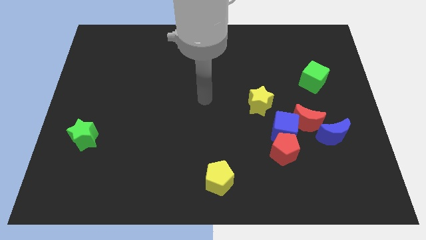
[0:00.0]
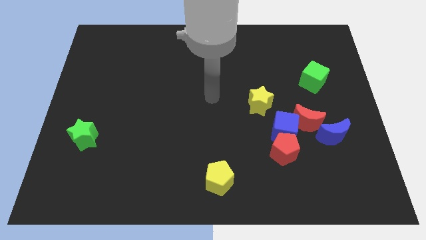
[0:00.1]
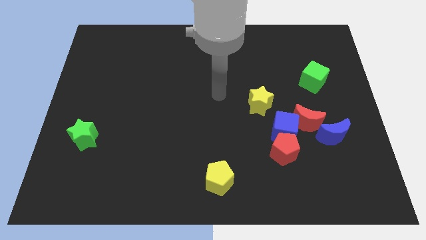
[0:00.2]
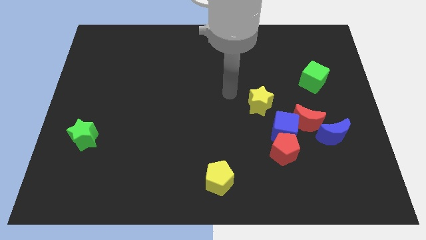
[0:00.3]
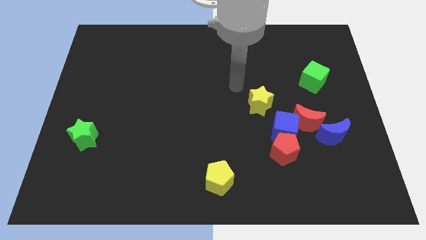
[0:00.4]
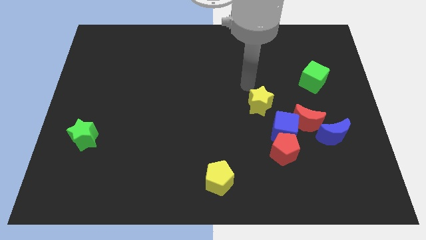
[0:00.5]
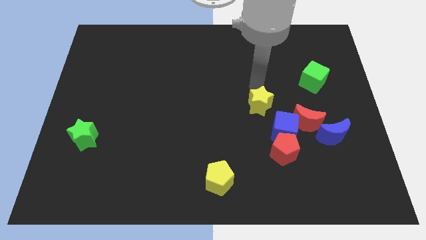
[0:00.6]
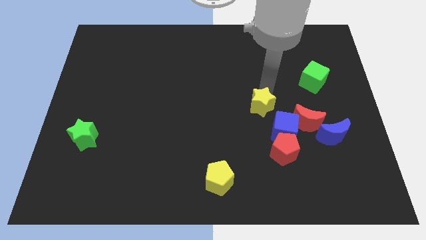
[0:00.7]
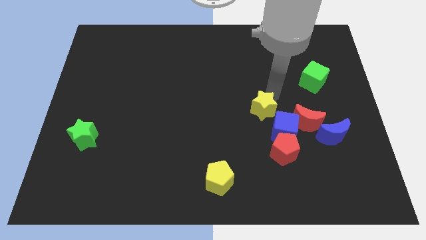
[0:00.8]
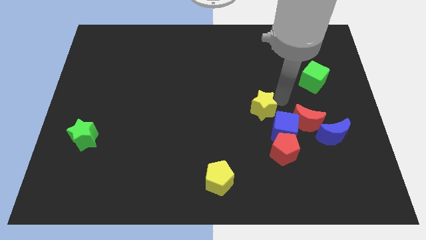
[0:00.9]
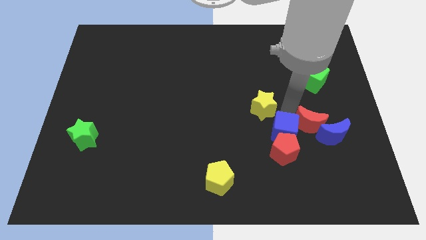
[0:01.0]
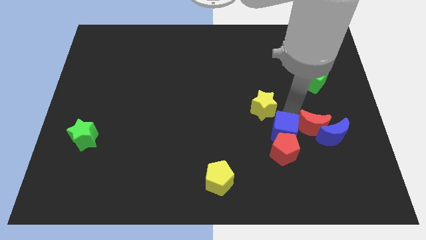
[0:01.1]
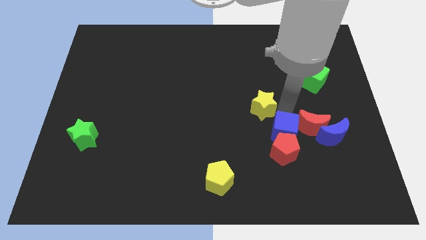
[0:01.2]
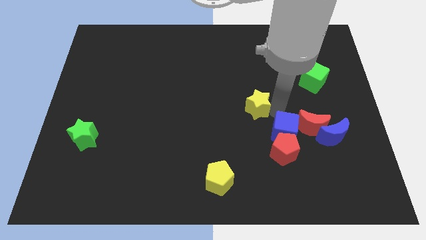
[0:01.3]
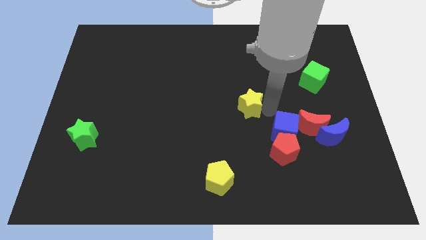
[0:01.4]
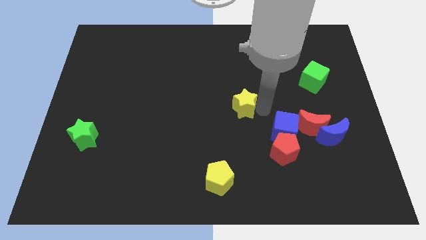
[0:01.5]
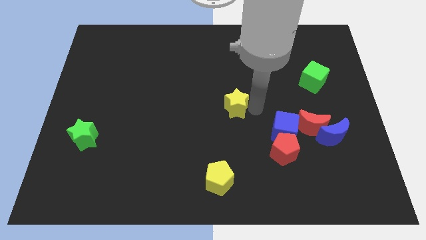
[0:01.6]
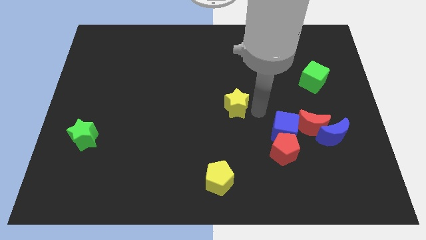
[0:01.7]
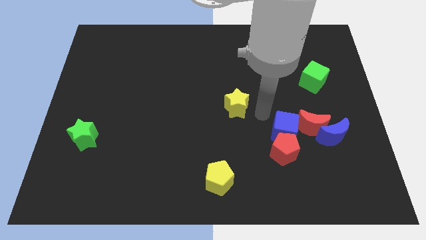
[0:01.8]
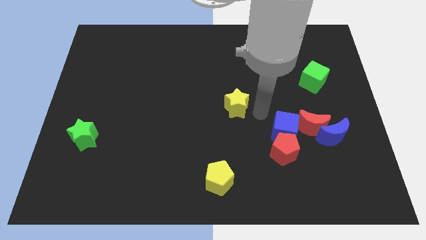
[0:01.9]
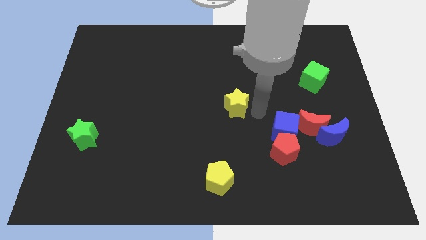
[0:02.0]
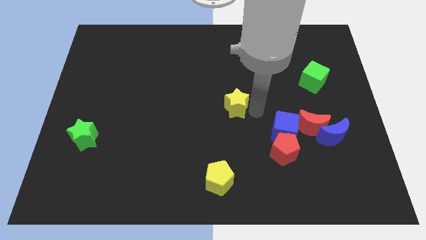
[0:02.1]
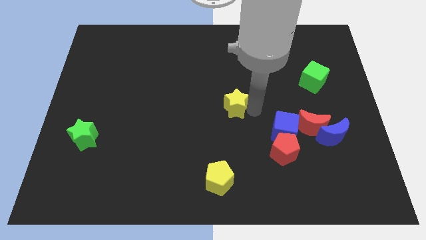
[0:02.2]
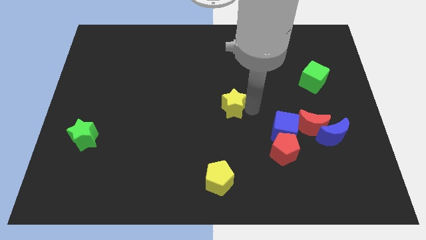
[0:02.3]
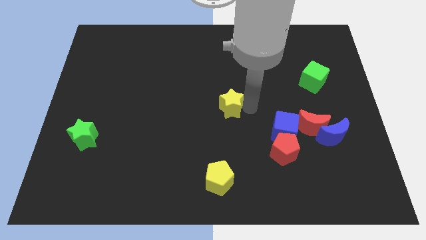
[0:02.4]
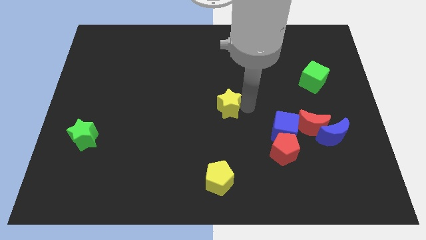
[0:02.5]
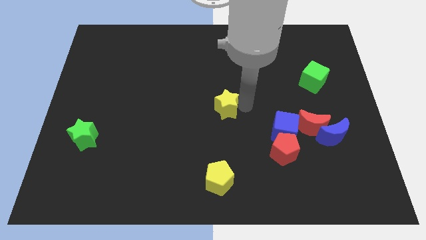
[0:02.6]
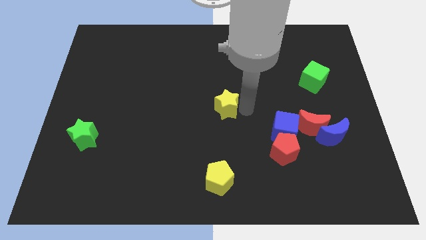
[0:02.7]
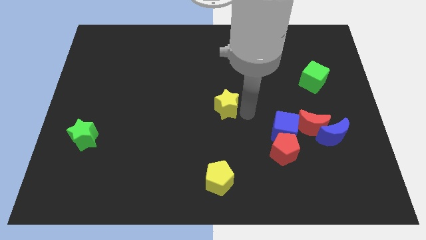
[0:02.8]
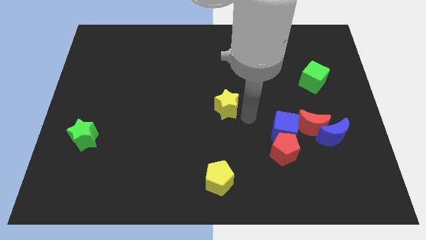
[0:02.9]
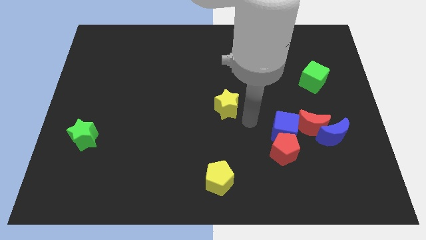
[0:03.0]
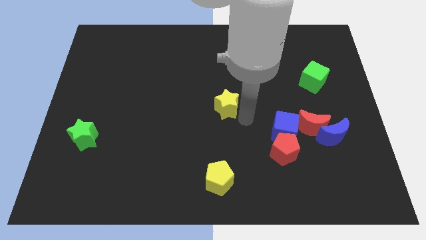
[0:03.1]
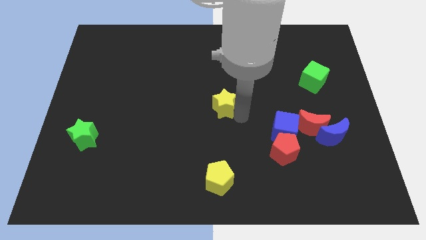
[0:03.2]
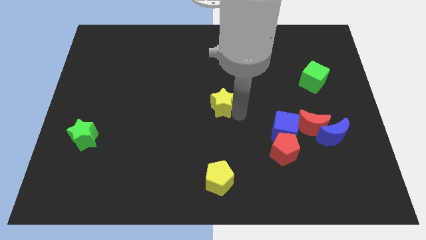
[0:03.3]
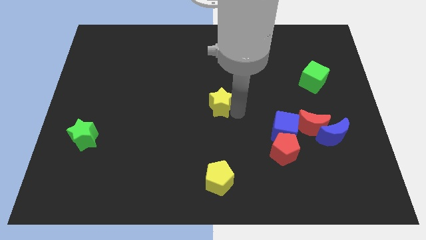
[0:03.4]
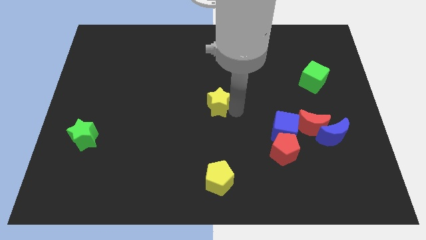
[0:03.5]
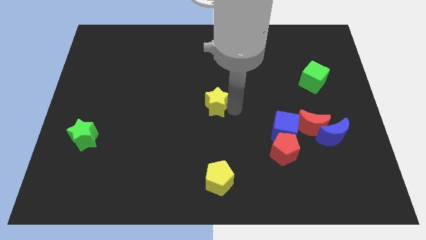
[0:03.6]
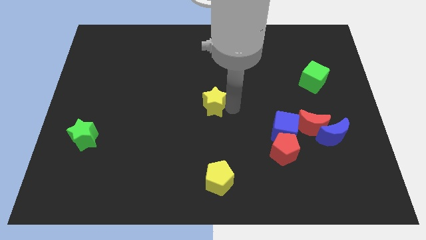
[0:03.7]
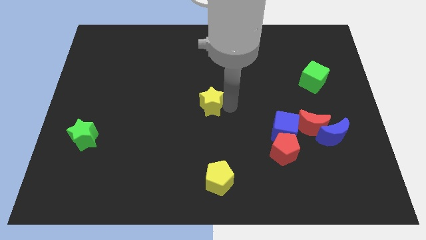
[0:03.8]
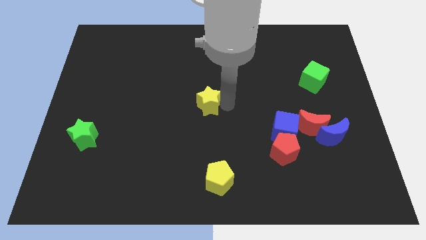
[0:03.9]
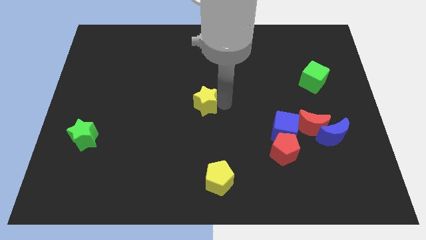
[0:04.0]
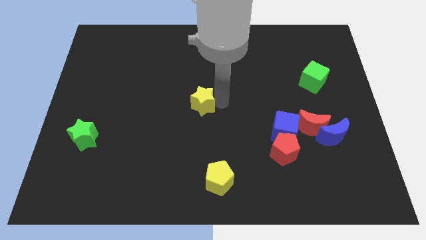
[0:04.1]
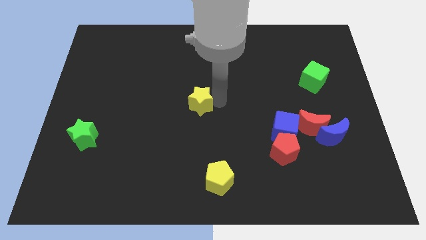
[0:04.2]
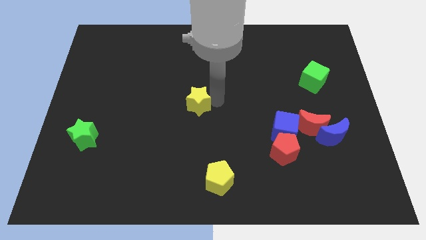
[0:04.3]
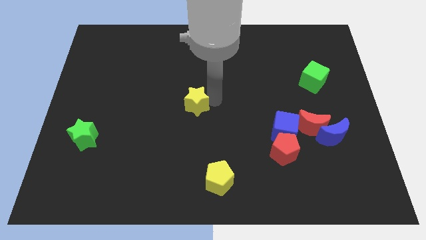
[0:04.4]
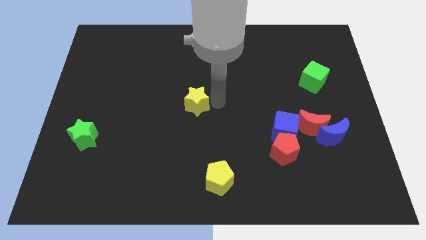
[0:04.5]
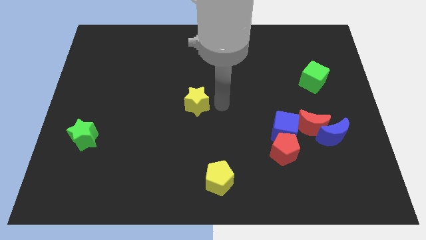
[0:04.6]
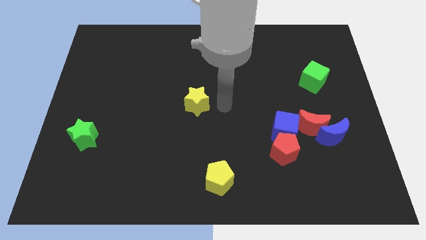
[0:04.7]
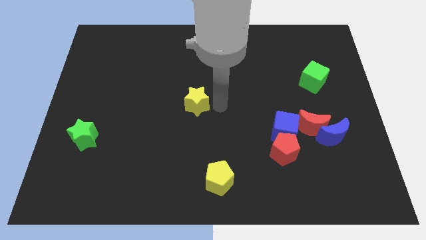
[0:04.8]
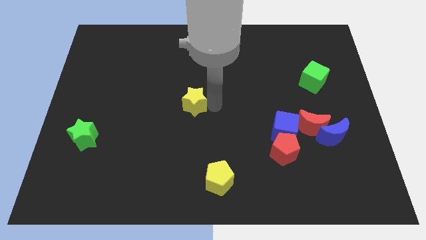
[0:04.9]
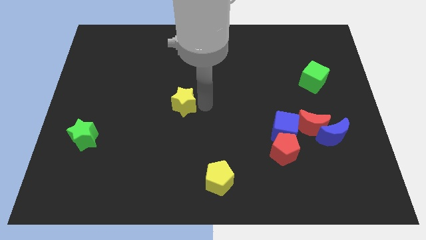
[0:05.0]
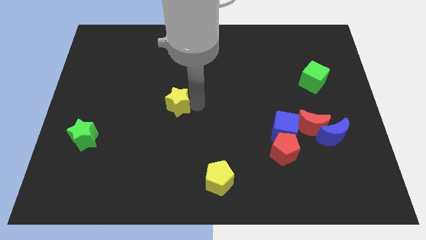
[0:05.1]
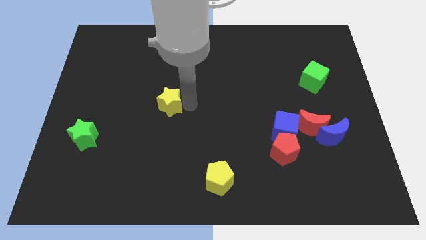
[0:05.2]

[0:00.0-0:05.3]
slide the yellow star to the left

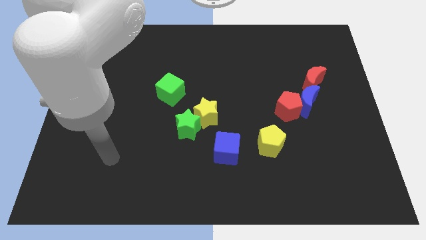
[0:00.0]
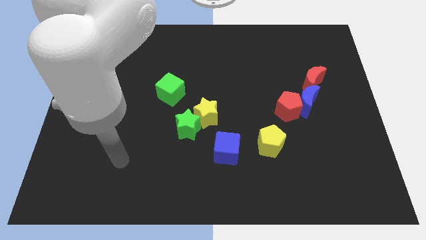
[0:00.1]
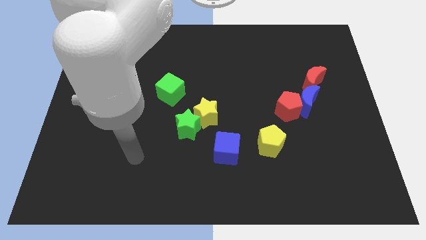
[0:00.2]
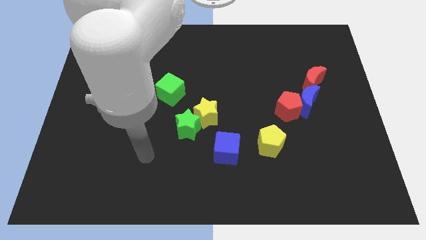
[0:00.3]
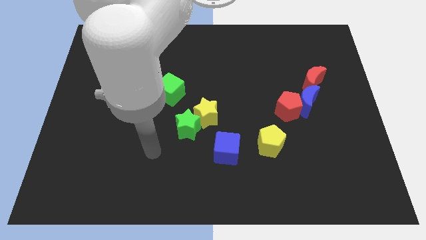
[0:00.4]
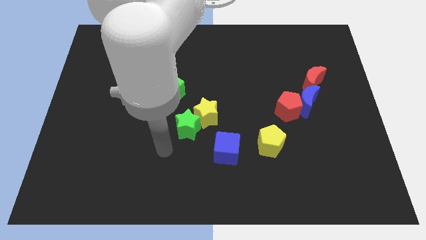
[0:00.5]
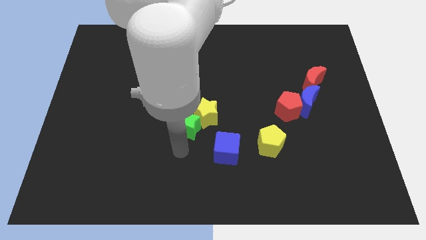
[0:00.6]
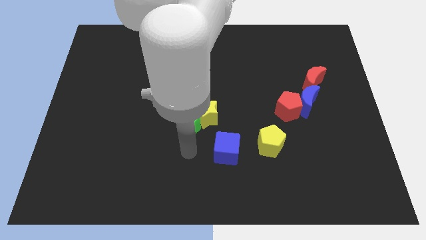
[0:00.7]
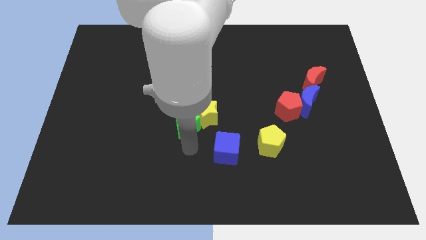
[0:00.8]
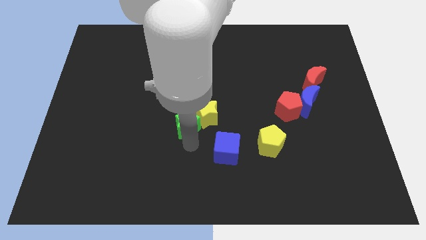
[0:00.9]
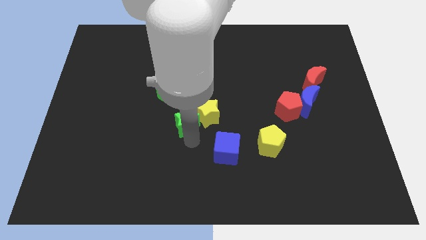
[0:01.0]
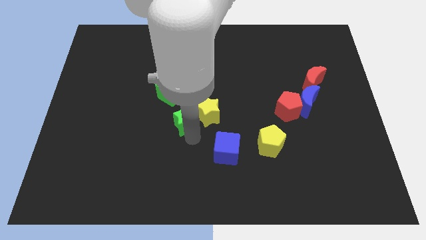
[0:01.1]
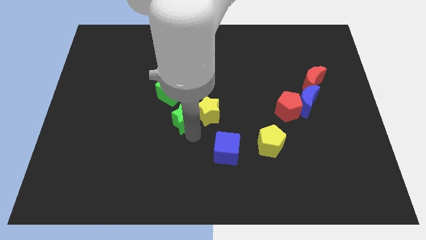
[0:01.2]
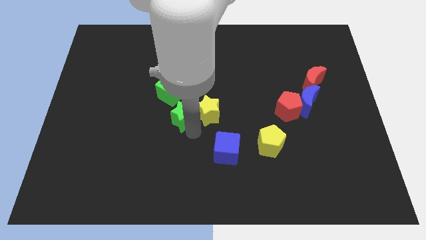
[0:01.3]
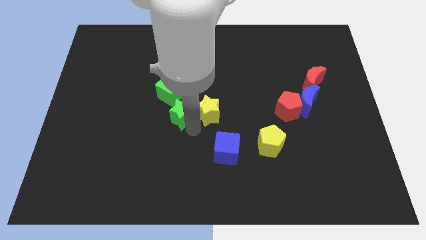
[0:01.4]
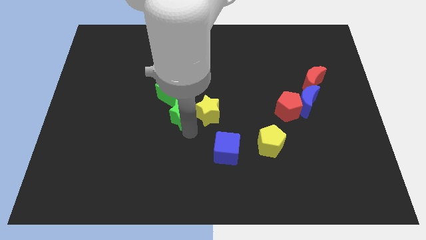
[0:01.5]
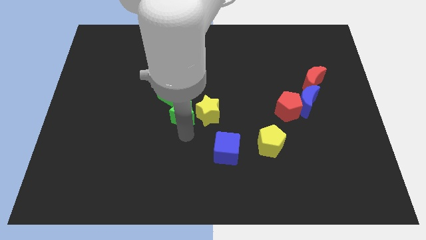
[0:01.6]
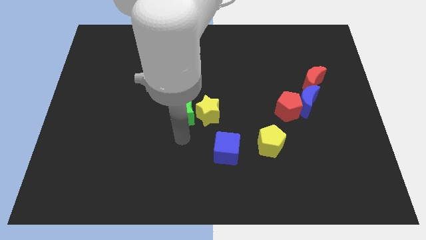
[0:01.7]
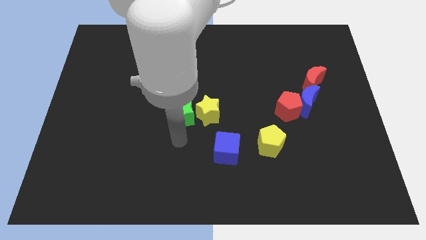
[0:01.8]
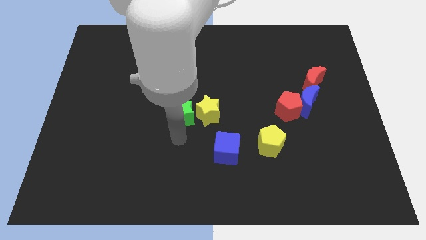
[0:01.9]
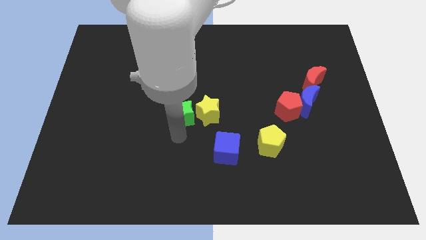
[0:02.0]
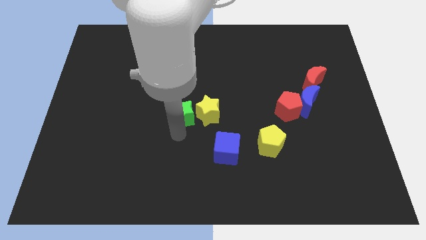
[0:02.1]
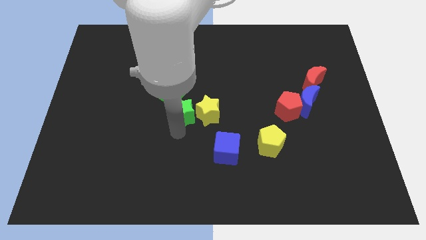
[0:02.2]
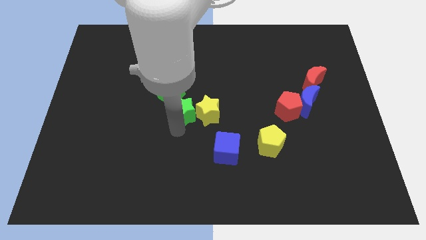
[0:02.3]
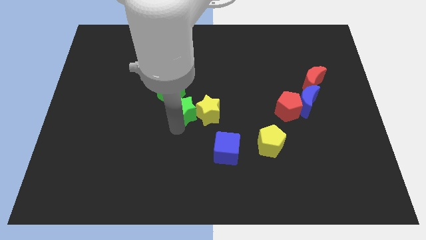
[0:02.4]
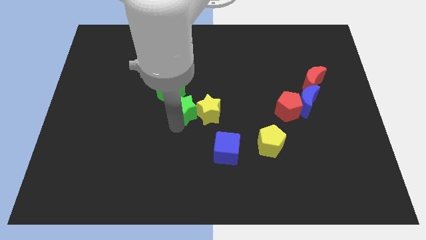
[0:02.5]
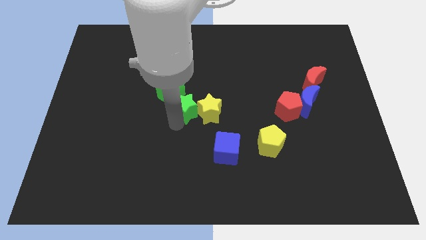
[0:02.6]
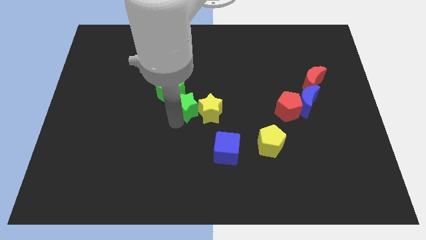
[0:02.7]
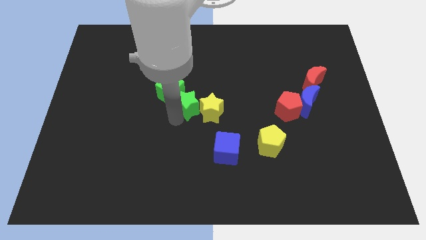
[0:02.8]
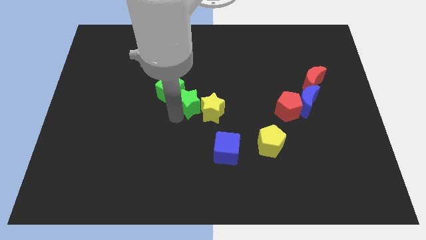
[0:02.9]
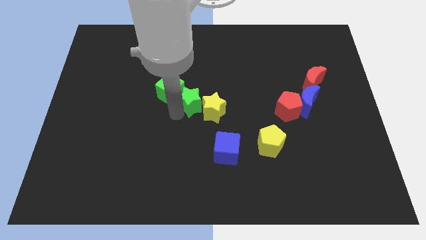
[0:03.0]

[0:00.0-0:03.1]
push the green star somewhat up

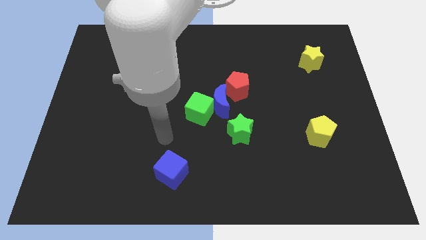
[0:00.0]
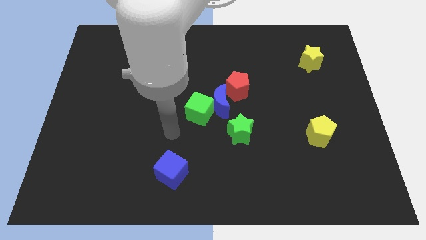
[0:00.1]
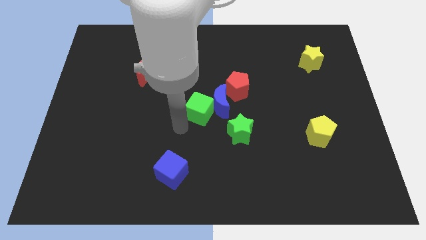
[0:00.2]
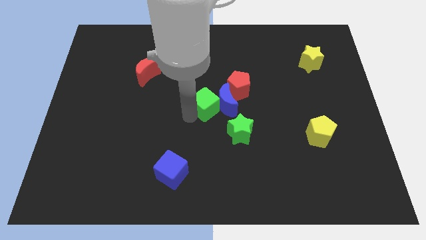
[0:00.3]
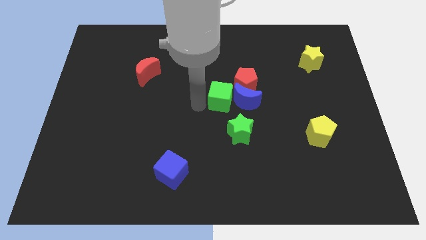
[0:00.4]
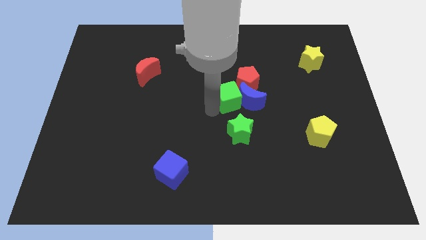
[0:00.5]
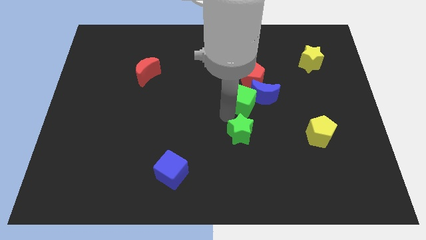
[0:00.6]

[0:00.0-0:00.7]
slightly push the blue moon diagonally up and right
